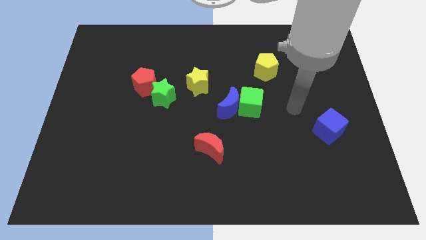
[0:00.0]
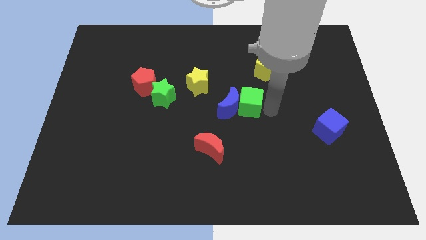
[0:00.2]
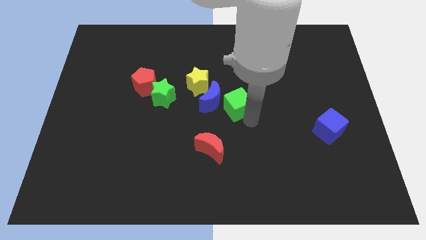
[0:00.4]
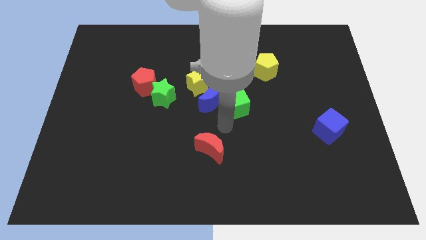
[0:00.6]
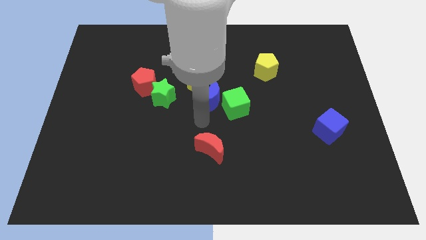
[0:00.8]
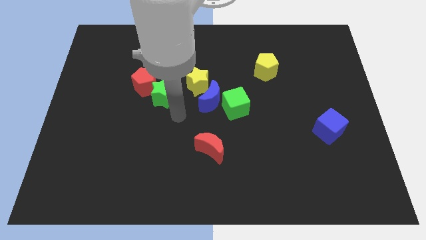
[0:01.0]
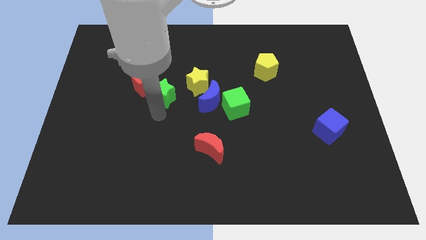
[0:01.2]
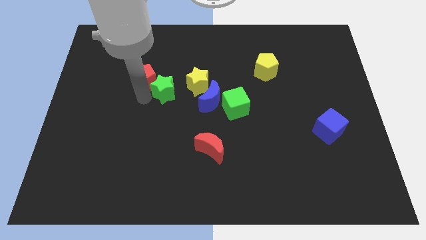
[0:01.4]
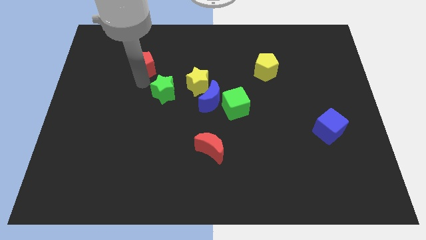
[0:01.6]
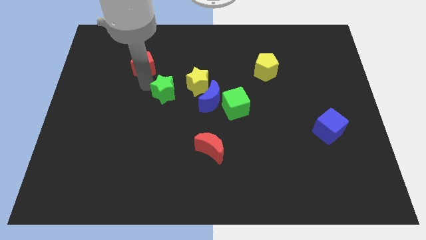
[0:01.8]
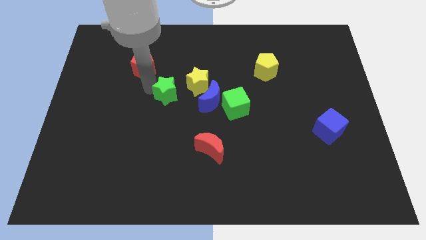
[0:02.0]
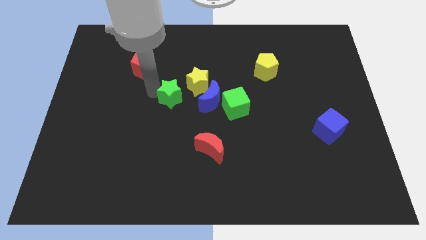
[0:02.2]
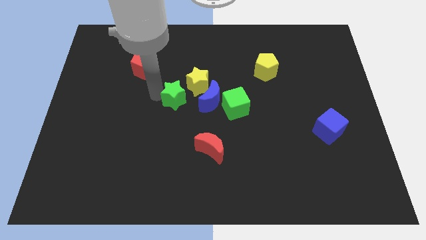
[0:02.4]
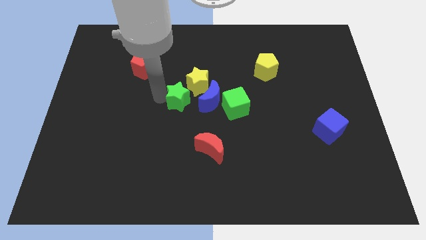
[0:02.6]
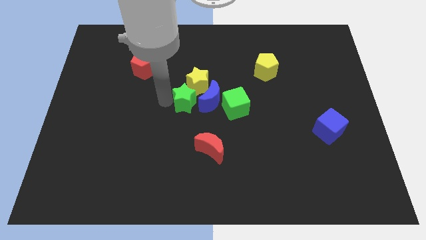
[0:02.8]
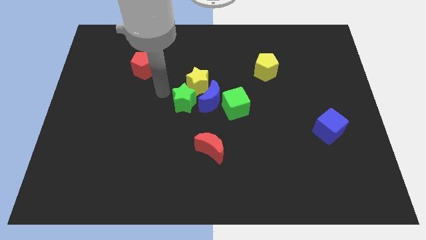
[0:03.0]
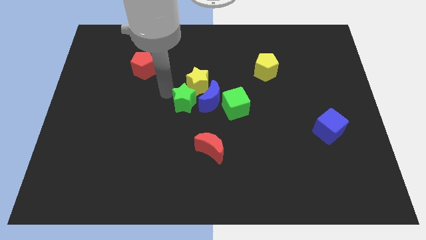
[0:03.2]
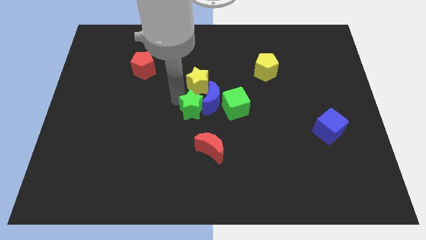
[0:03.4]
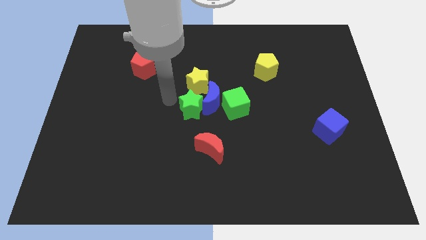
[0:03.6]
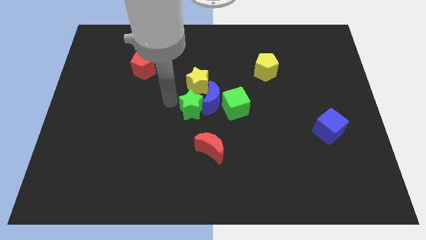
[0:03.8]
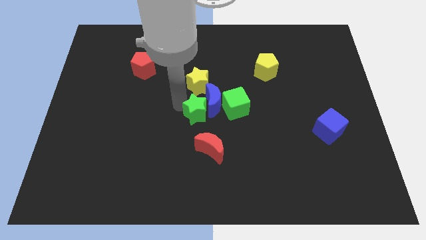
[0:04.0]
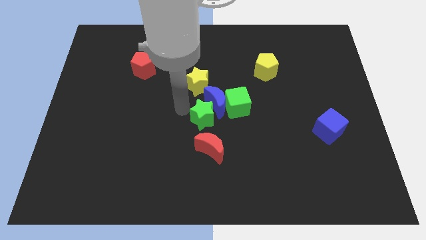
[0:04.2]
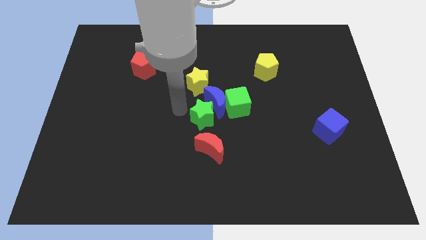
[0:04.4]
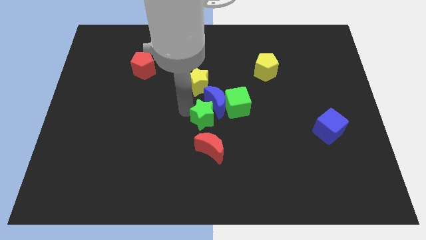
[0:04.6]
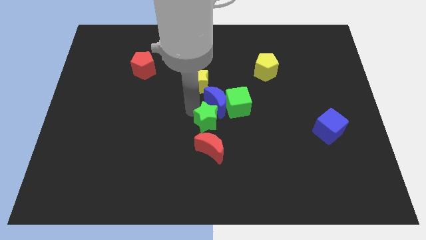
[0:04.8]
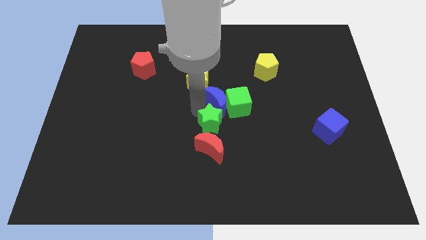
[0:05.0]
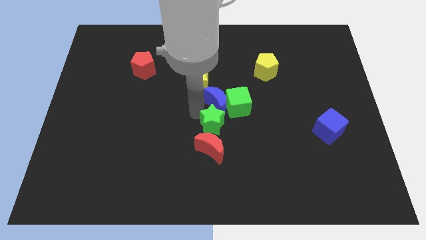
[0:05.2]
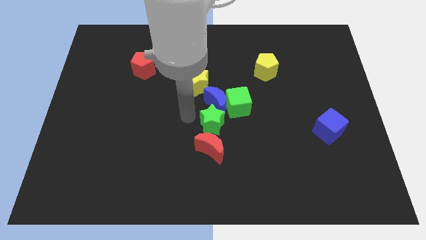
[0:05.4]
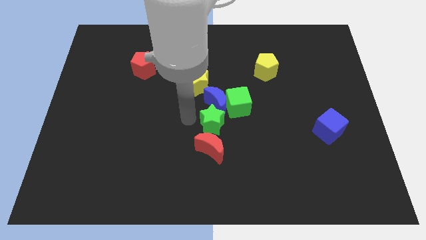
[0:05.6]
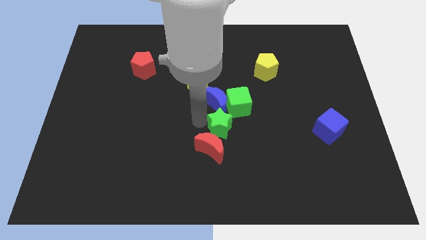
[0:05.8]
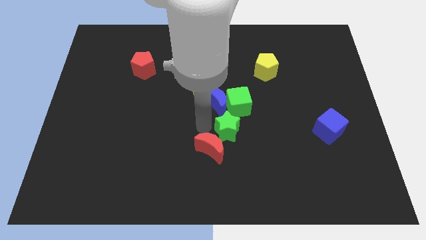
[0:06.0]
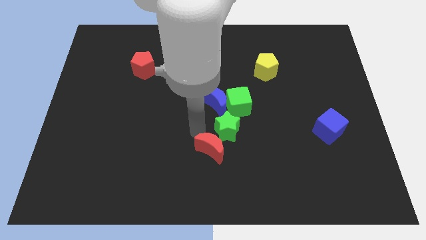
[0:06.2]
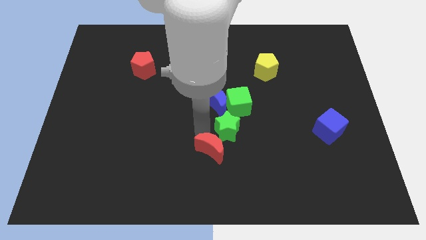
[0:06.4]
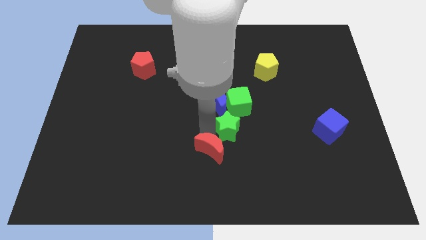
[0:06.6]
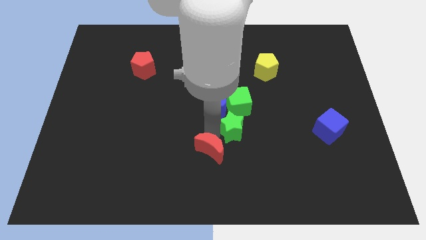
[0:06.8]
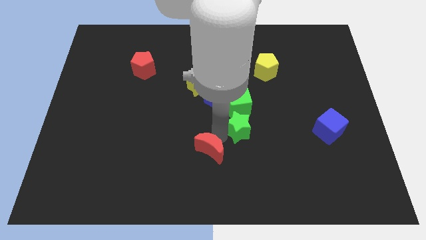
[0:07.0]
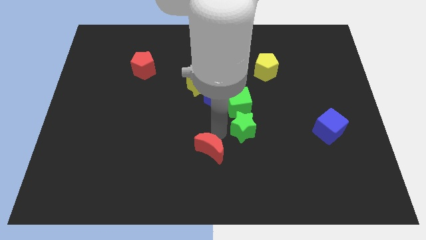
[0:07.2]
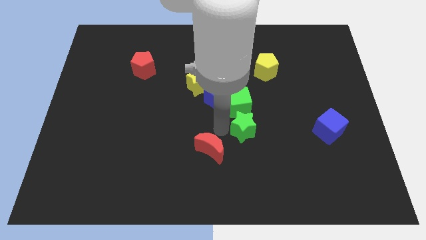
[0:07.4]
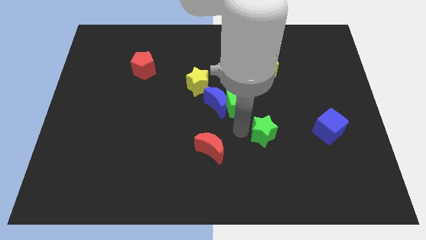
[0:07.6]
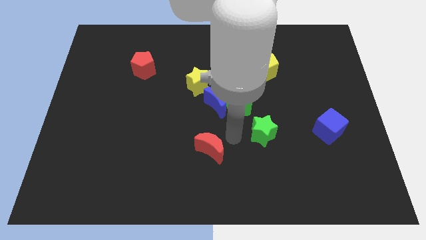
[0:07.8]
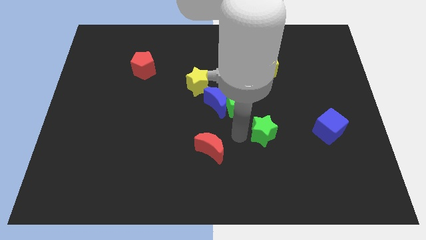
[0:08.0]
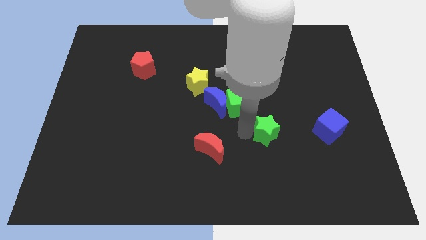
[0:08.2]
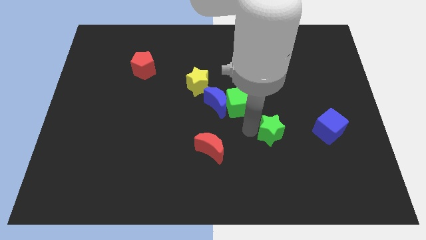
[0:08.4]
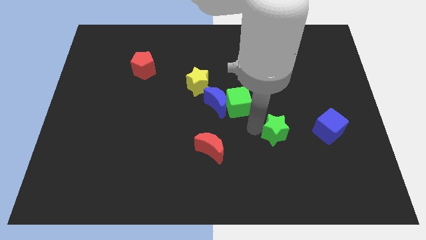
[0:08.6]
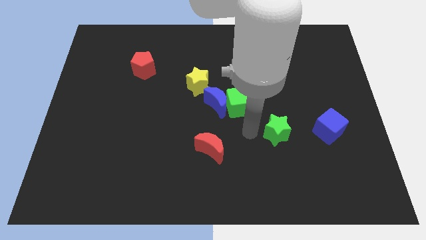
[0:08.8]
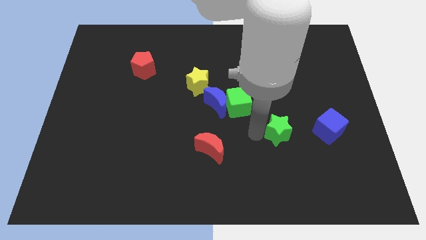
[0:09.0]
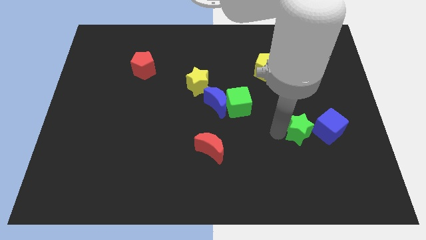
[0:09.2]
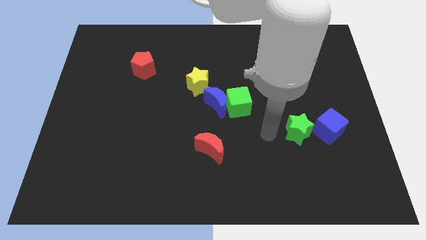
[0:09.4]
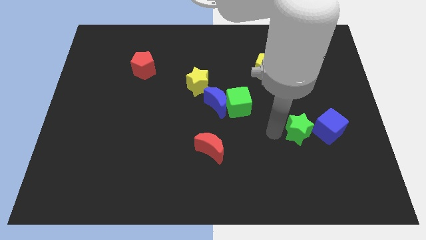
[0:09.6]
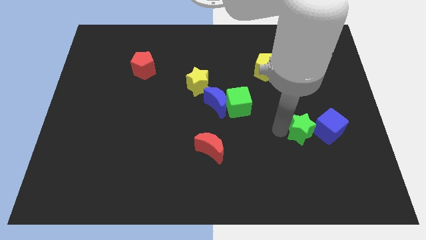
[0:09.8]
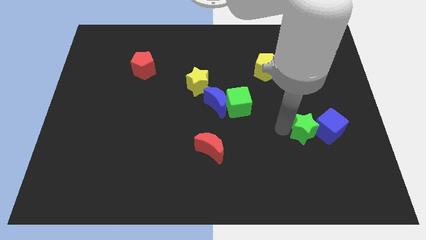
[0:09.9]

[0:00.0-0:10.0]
move the green star to the blue cube

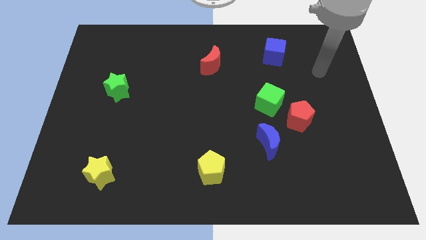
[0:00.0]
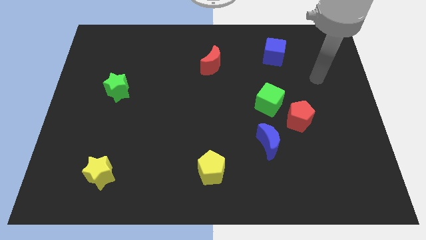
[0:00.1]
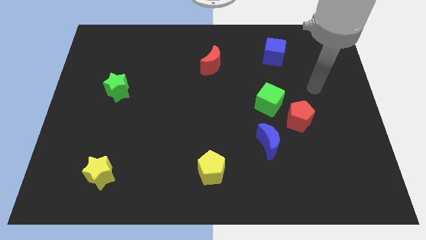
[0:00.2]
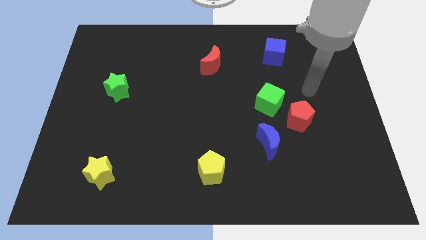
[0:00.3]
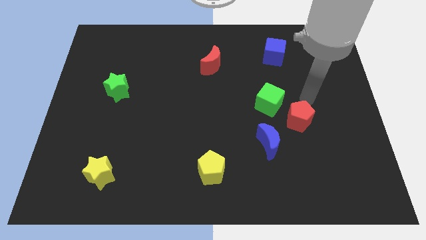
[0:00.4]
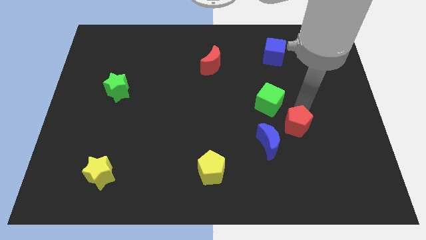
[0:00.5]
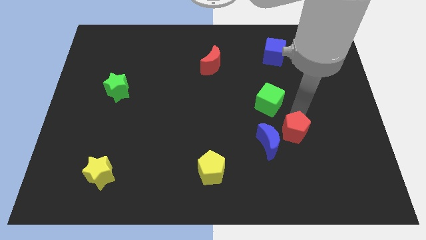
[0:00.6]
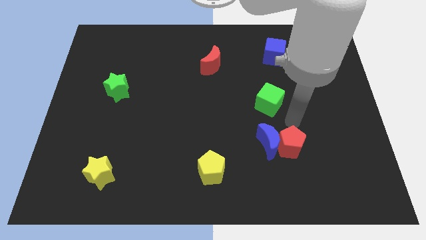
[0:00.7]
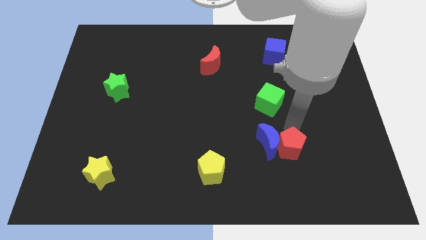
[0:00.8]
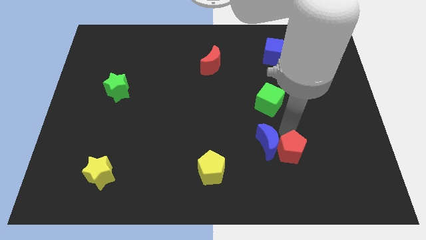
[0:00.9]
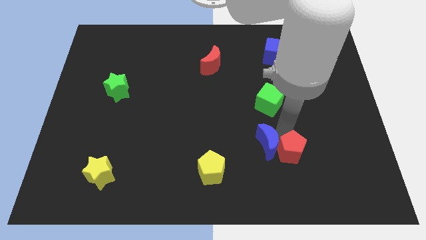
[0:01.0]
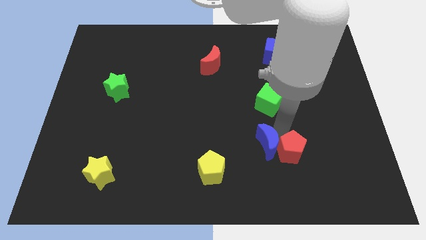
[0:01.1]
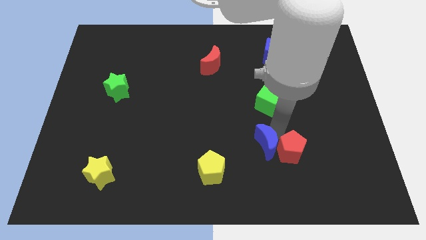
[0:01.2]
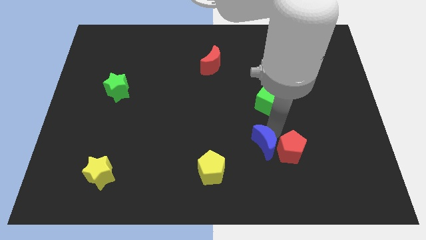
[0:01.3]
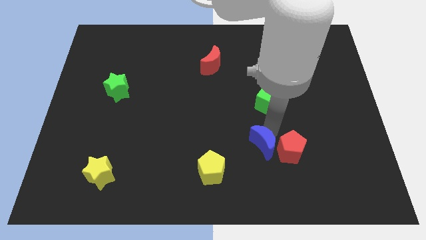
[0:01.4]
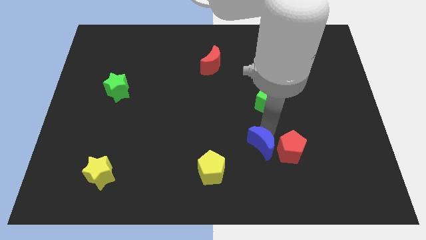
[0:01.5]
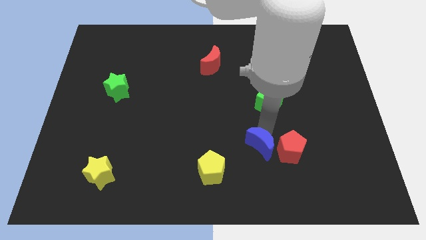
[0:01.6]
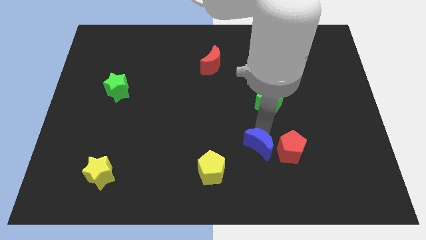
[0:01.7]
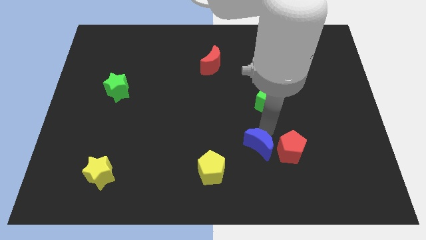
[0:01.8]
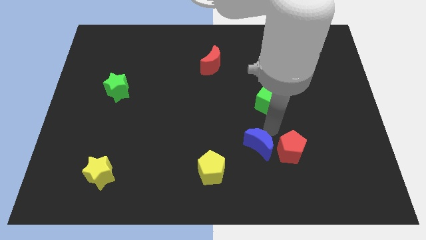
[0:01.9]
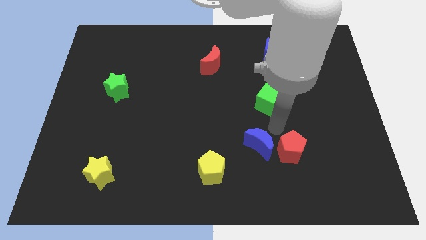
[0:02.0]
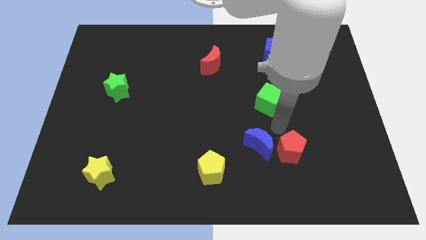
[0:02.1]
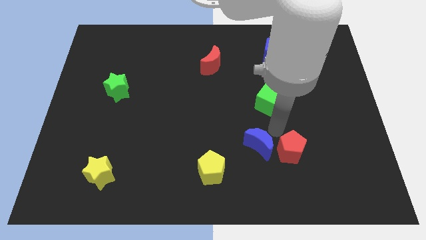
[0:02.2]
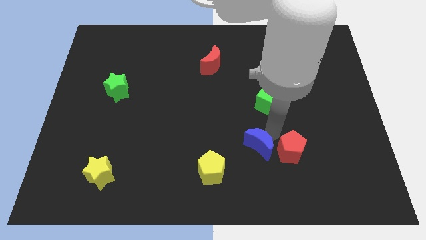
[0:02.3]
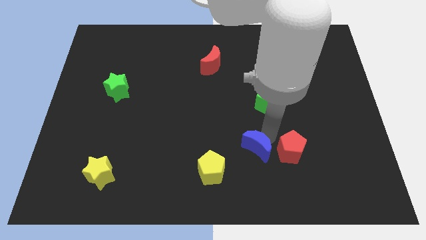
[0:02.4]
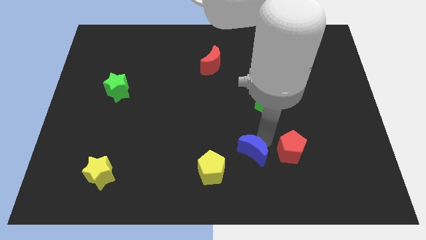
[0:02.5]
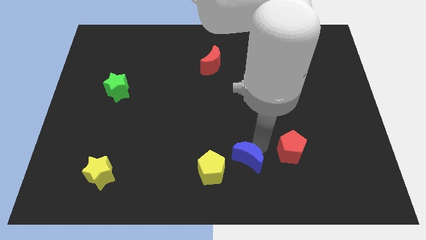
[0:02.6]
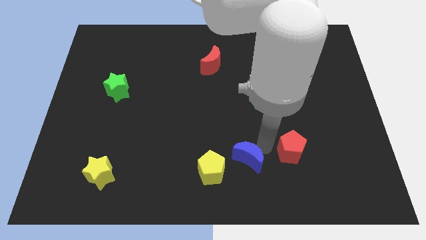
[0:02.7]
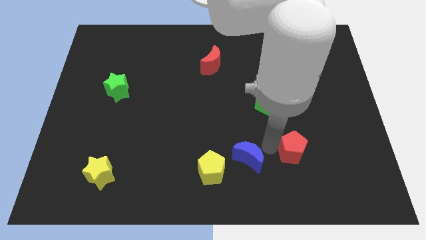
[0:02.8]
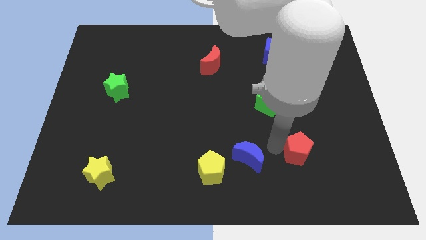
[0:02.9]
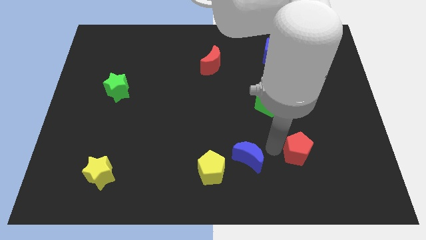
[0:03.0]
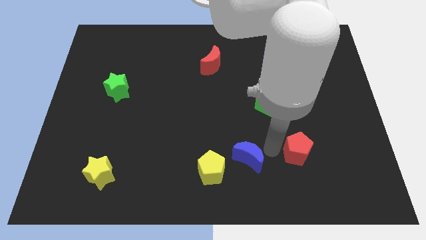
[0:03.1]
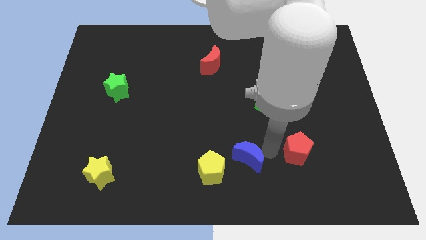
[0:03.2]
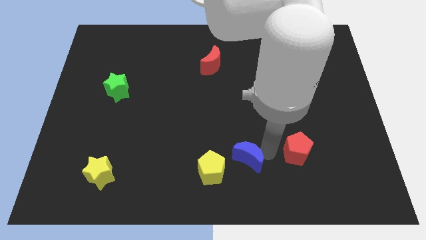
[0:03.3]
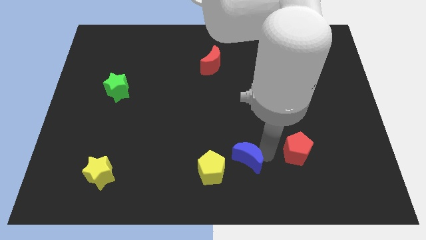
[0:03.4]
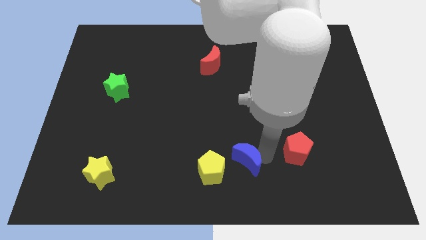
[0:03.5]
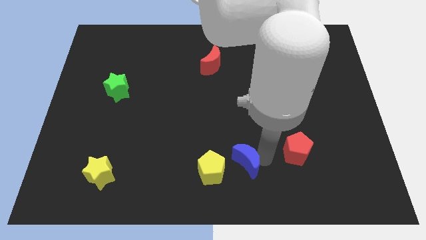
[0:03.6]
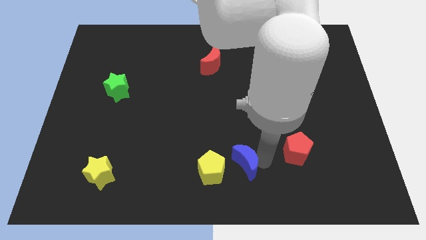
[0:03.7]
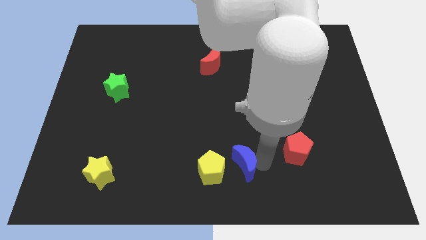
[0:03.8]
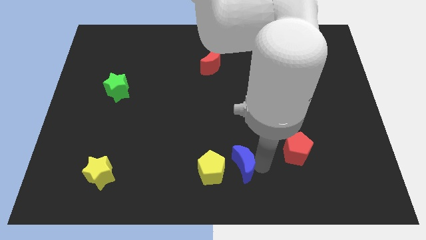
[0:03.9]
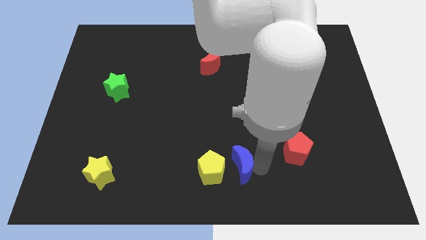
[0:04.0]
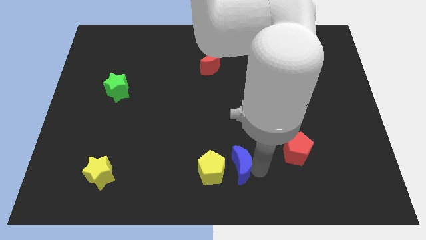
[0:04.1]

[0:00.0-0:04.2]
put the blue moon next to the yellow pentagon
